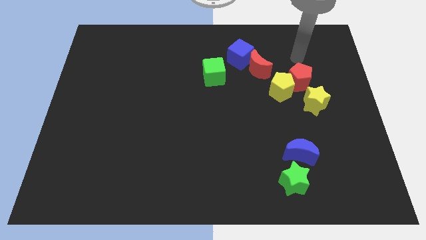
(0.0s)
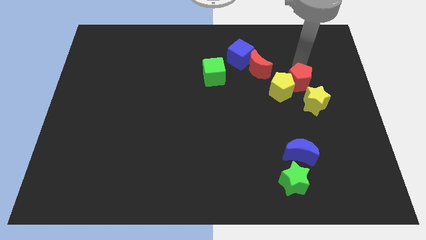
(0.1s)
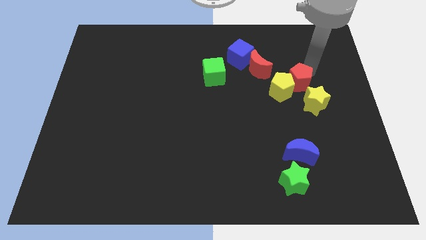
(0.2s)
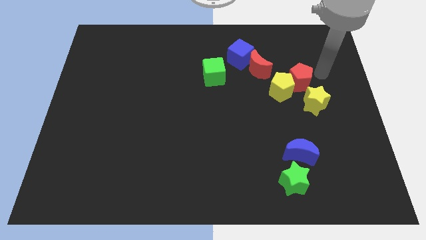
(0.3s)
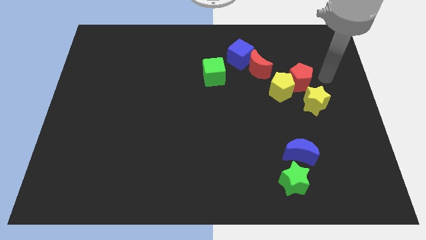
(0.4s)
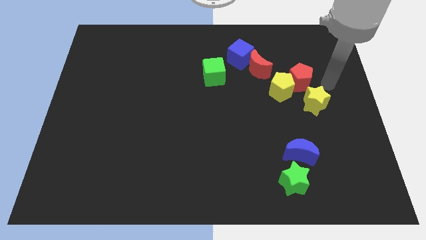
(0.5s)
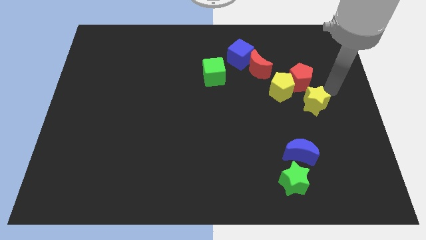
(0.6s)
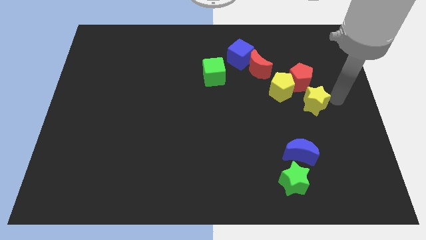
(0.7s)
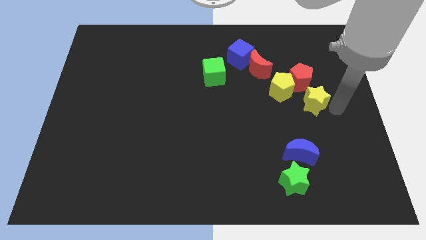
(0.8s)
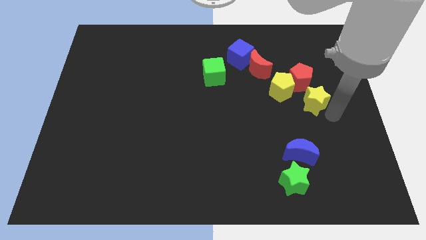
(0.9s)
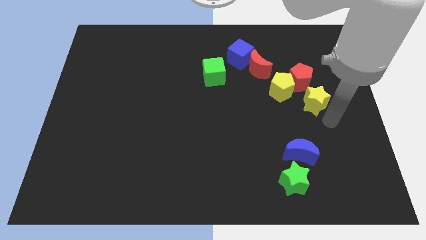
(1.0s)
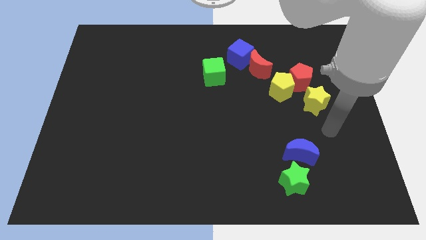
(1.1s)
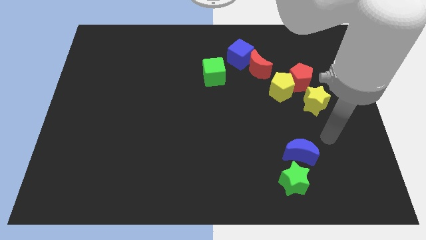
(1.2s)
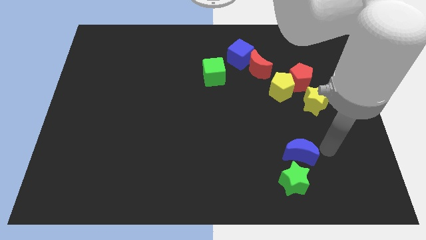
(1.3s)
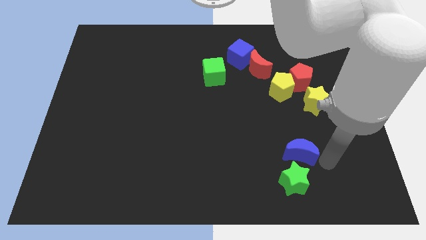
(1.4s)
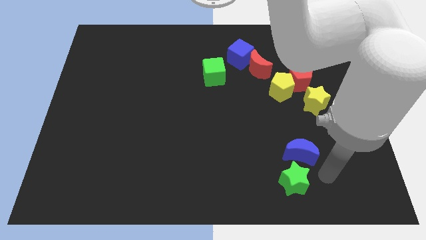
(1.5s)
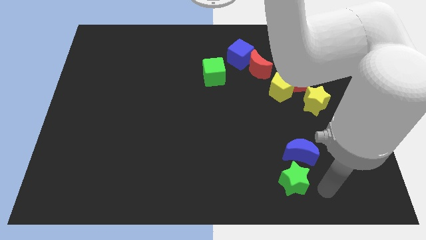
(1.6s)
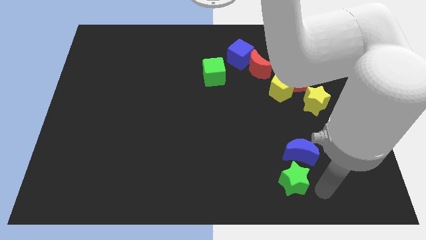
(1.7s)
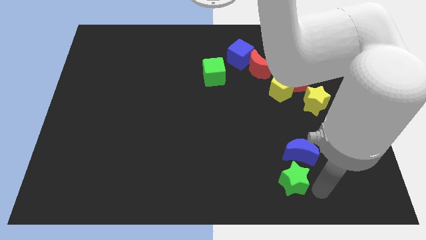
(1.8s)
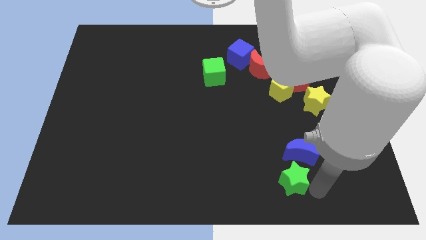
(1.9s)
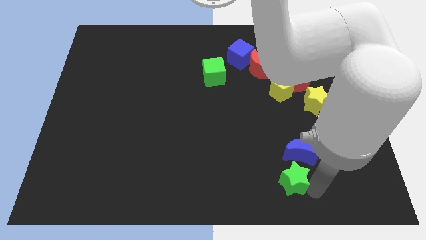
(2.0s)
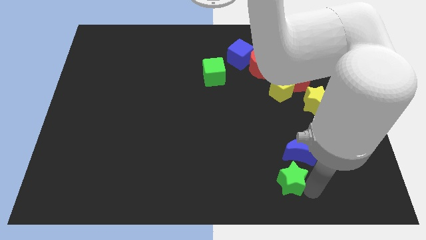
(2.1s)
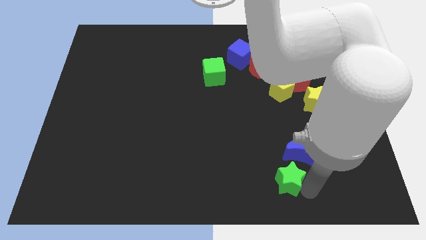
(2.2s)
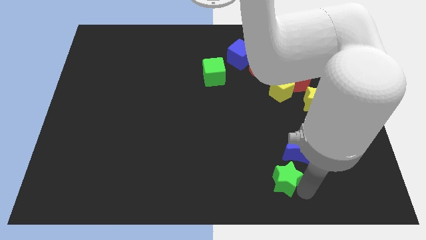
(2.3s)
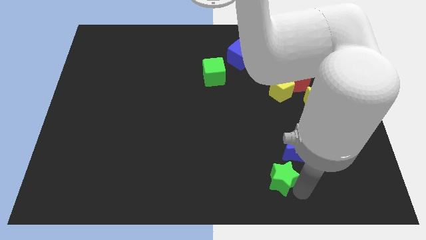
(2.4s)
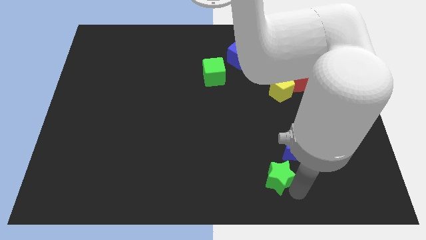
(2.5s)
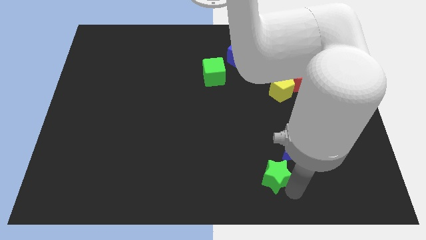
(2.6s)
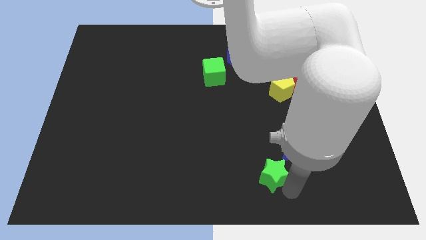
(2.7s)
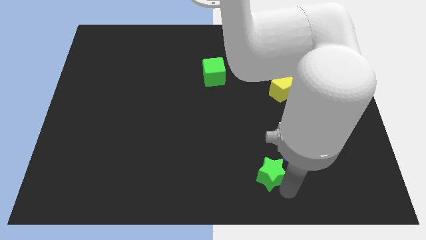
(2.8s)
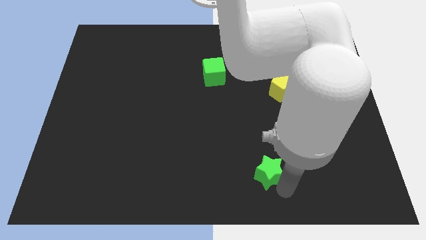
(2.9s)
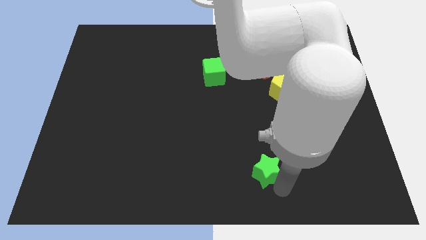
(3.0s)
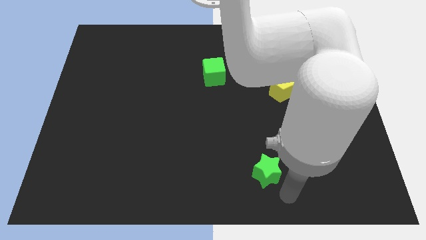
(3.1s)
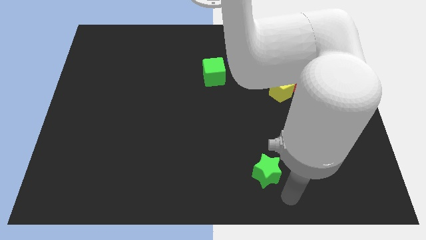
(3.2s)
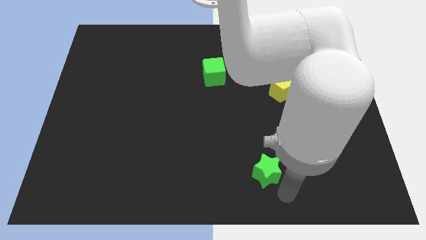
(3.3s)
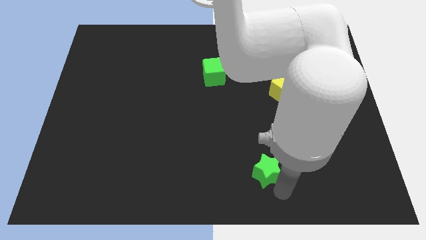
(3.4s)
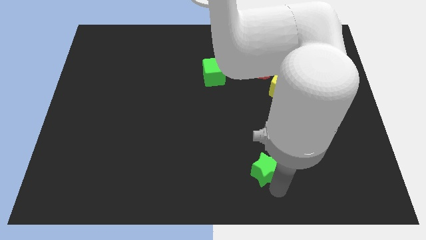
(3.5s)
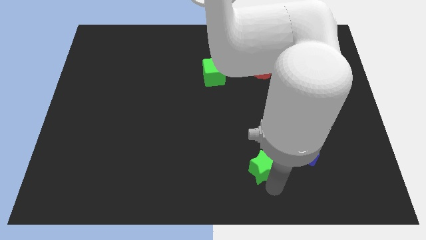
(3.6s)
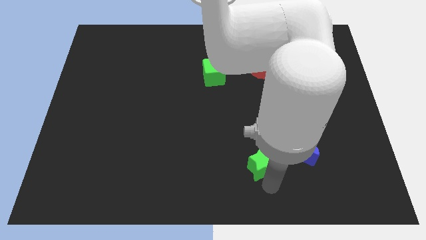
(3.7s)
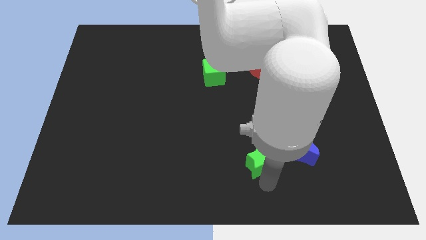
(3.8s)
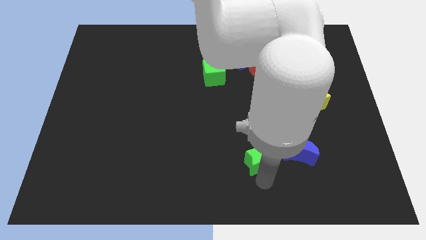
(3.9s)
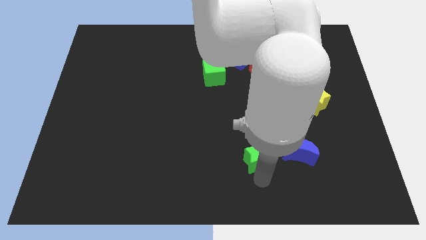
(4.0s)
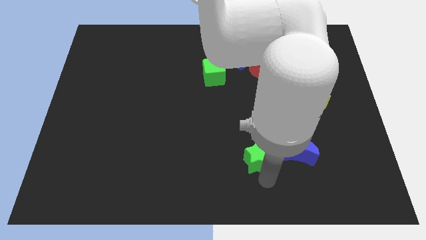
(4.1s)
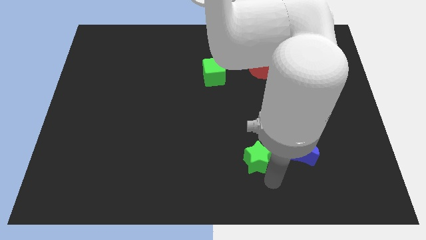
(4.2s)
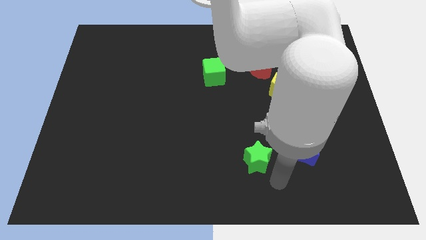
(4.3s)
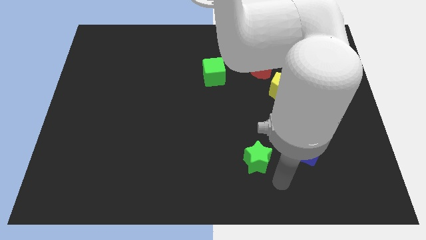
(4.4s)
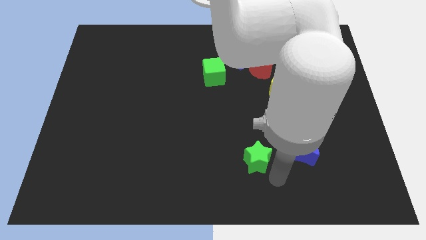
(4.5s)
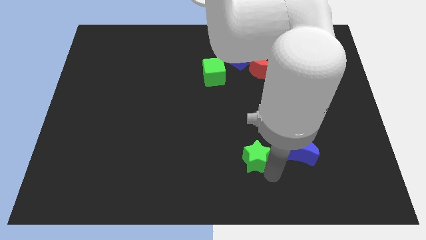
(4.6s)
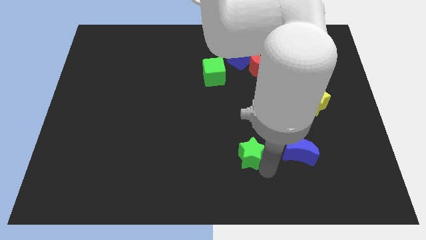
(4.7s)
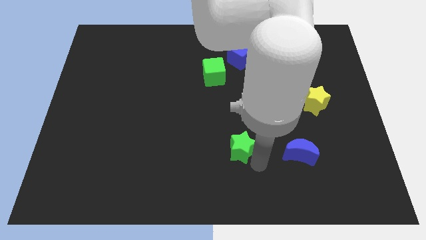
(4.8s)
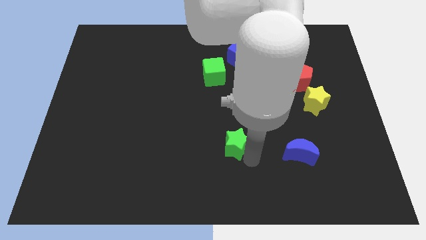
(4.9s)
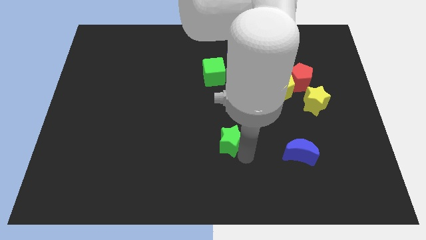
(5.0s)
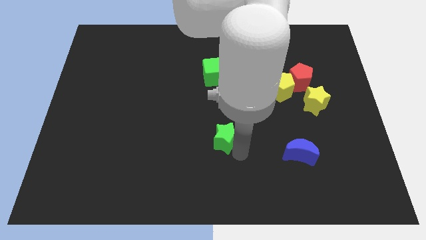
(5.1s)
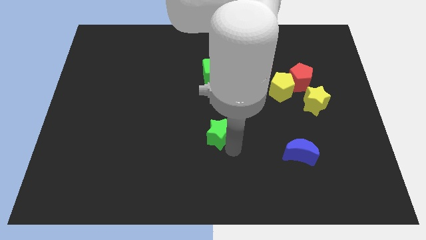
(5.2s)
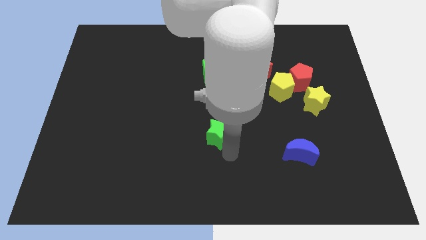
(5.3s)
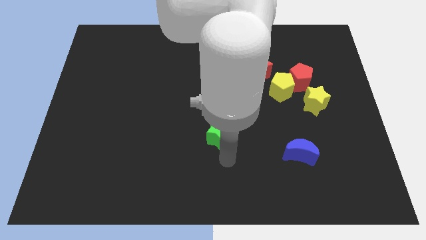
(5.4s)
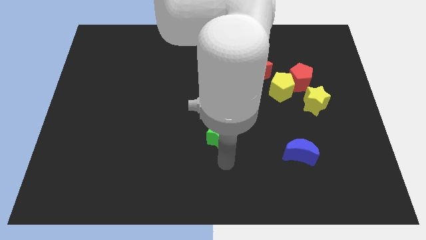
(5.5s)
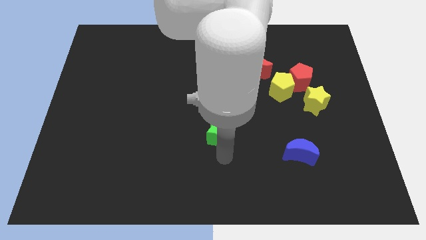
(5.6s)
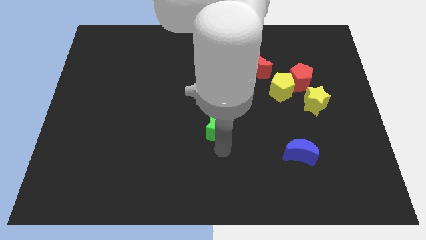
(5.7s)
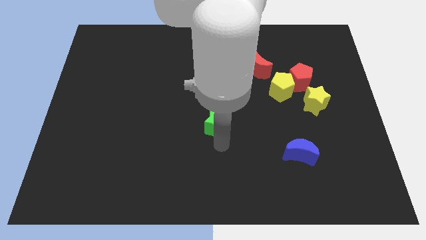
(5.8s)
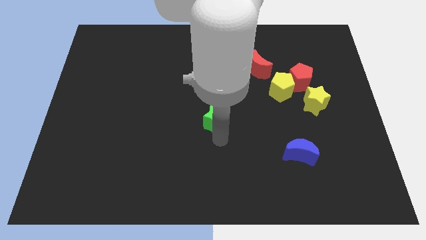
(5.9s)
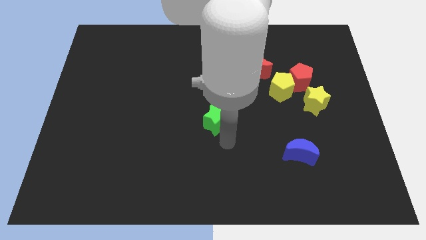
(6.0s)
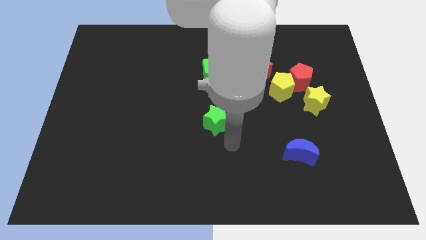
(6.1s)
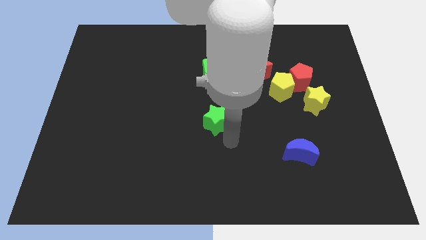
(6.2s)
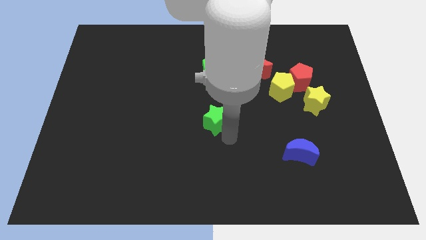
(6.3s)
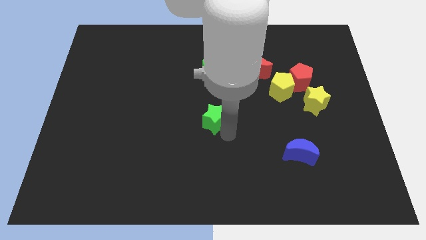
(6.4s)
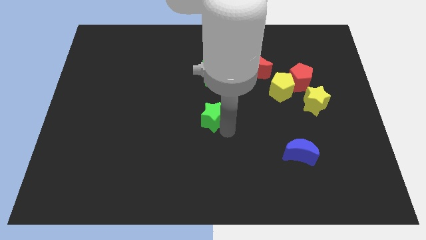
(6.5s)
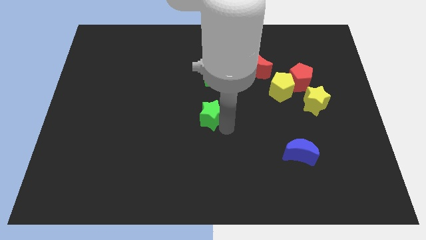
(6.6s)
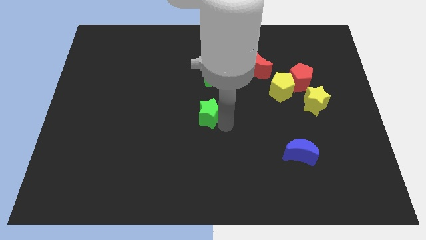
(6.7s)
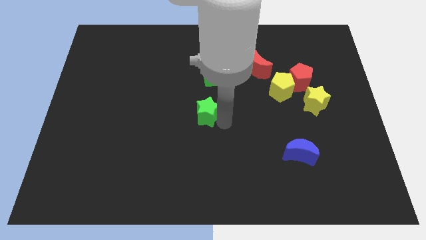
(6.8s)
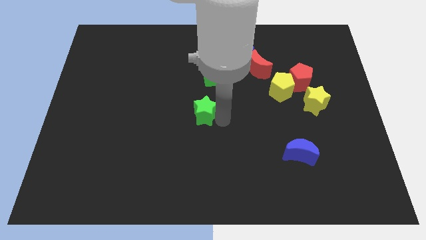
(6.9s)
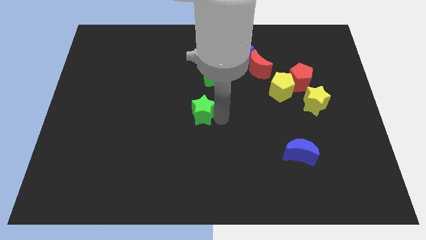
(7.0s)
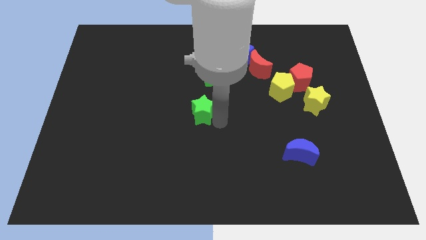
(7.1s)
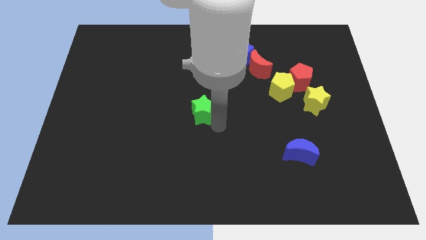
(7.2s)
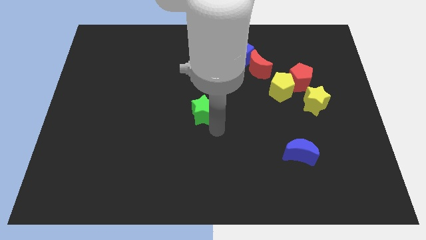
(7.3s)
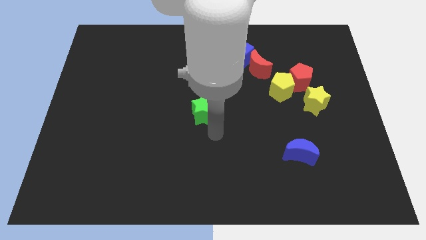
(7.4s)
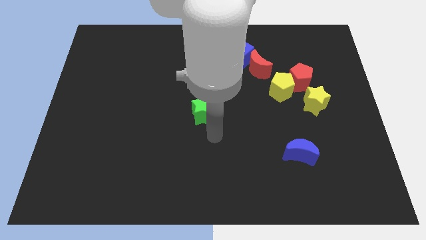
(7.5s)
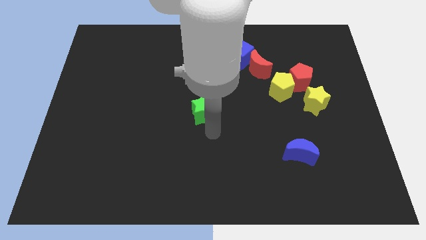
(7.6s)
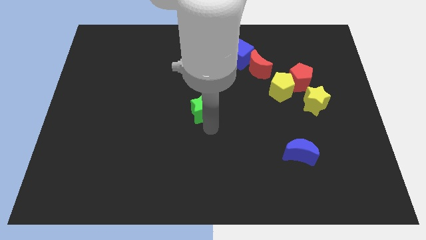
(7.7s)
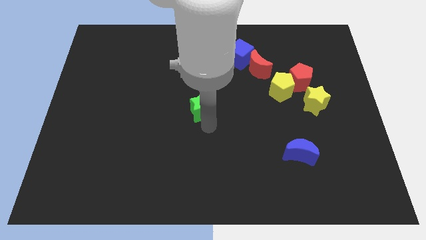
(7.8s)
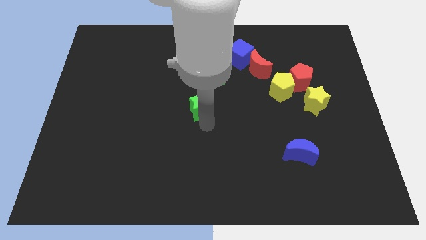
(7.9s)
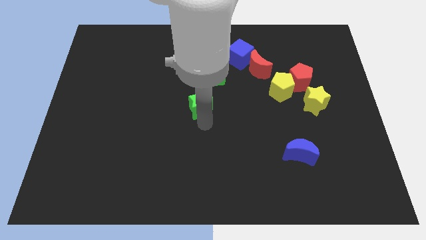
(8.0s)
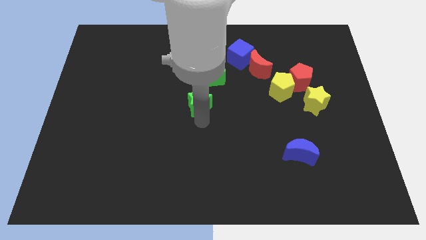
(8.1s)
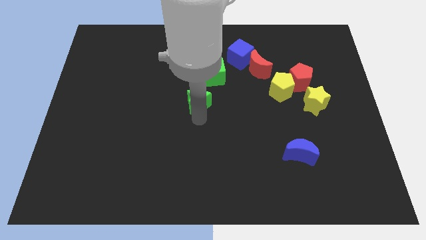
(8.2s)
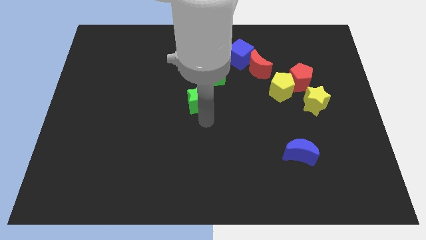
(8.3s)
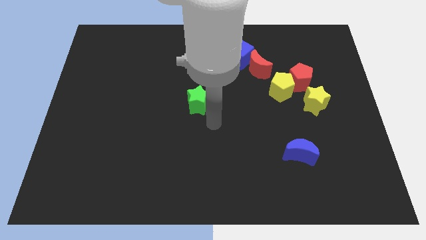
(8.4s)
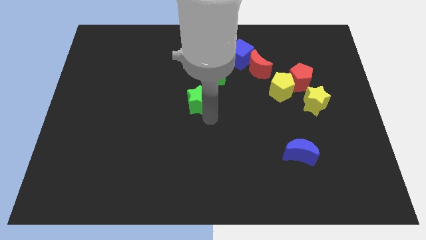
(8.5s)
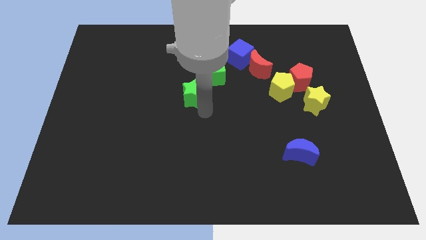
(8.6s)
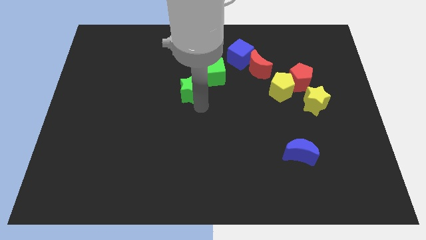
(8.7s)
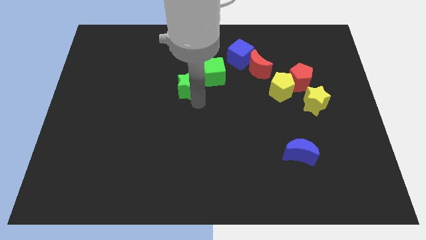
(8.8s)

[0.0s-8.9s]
put the green star left of the green cube
